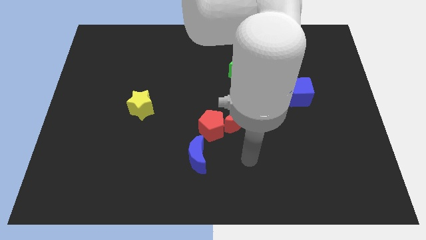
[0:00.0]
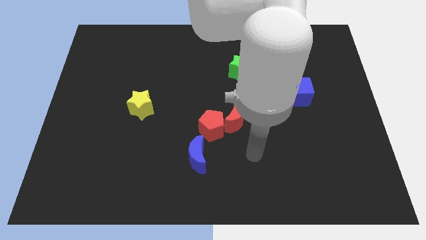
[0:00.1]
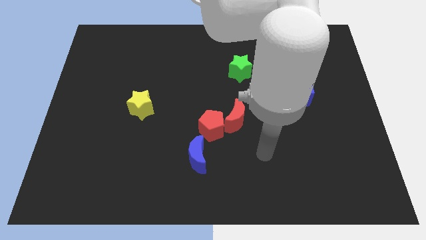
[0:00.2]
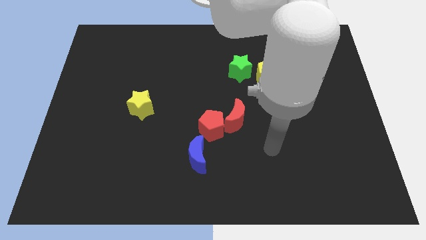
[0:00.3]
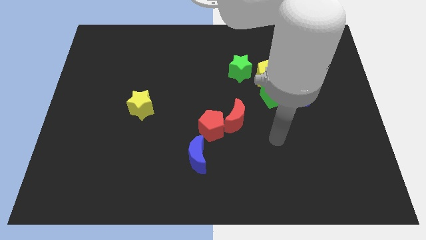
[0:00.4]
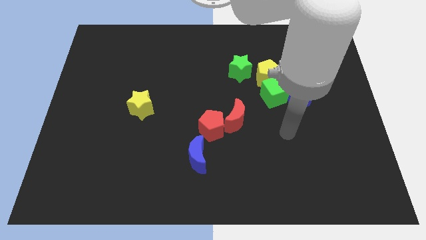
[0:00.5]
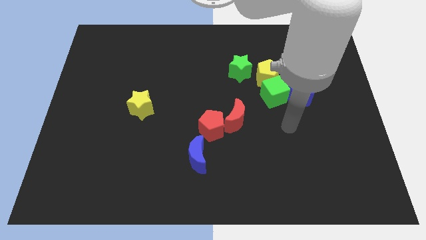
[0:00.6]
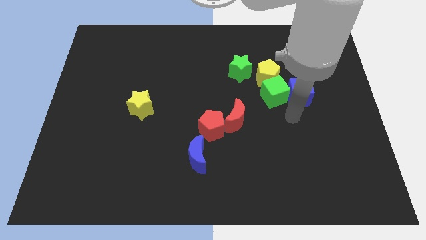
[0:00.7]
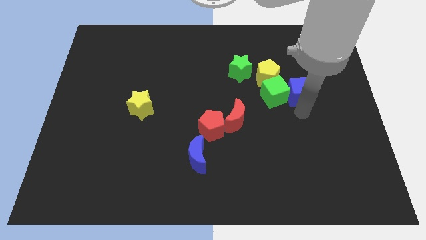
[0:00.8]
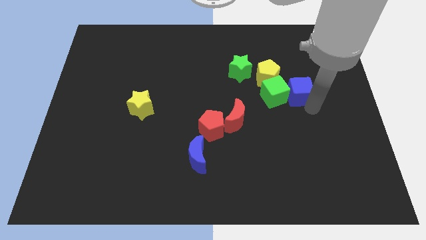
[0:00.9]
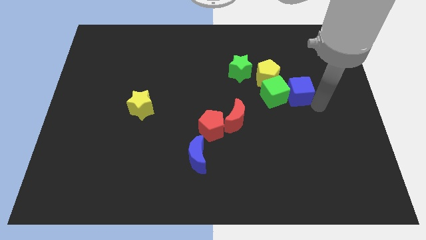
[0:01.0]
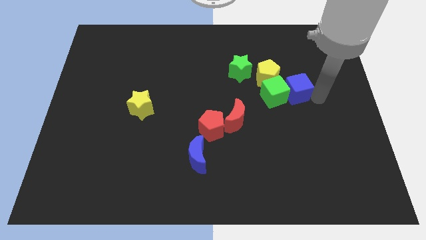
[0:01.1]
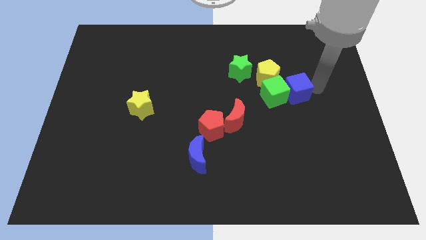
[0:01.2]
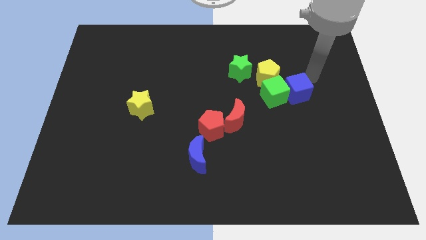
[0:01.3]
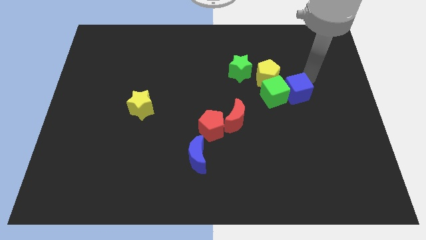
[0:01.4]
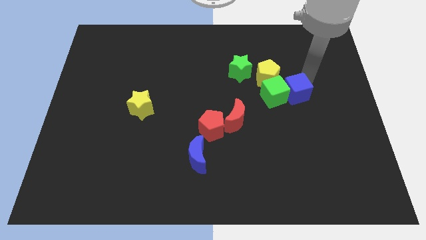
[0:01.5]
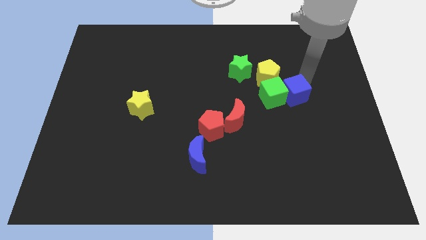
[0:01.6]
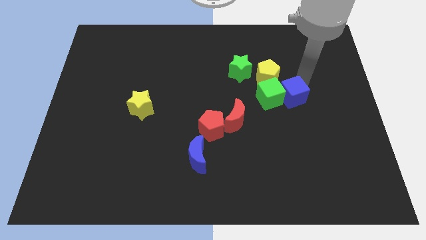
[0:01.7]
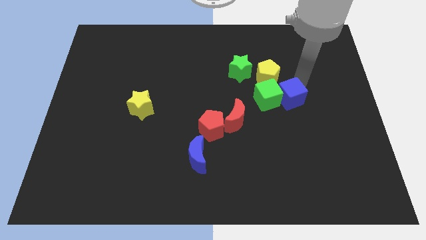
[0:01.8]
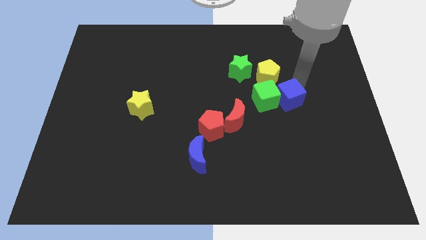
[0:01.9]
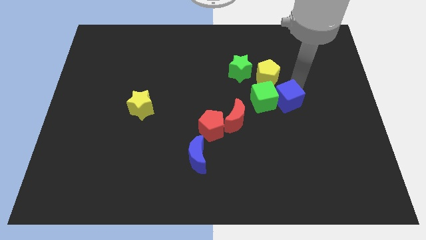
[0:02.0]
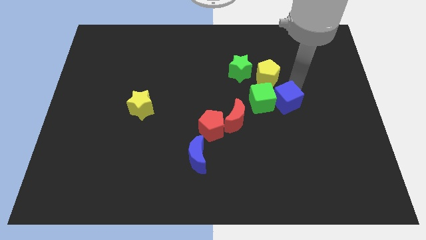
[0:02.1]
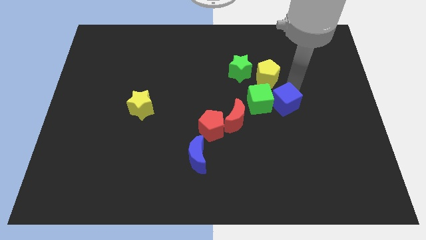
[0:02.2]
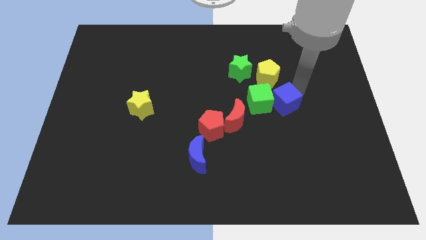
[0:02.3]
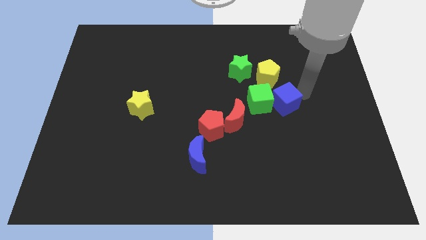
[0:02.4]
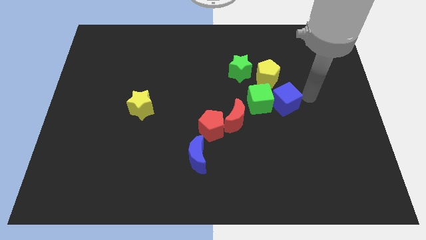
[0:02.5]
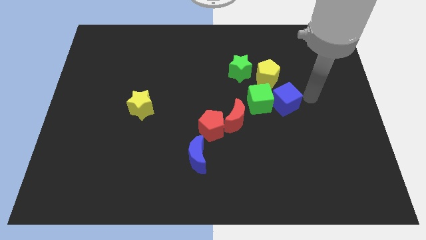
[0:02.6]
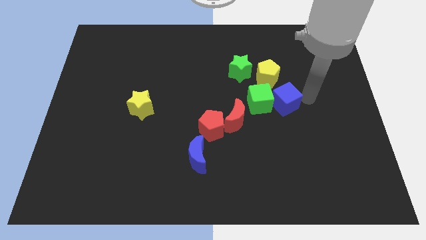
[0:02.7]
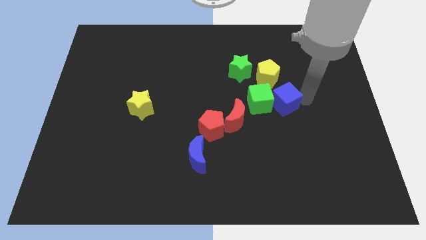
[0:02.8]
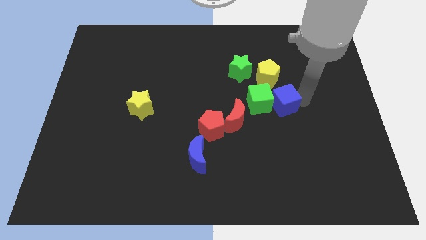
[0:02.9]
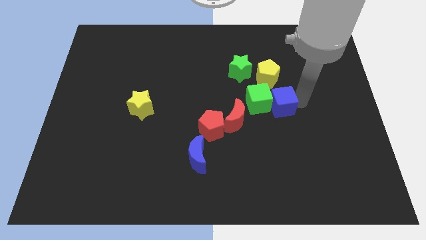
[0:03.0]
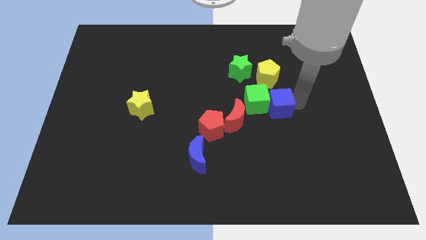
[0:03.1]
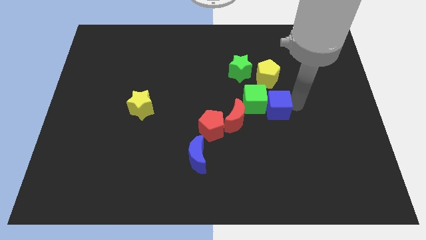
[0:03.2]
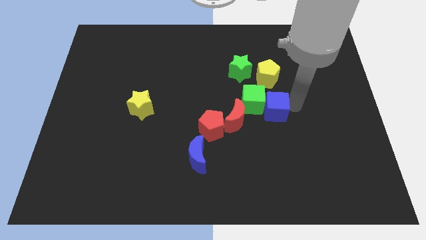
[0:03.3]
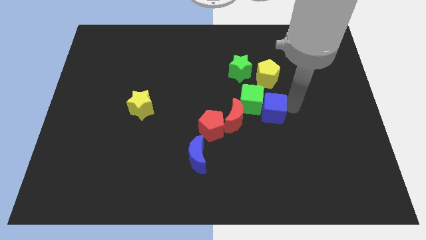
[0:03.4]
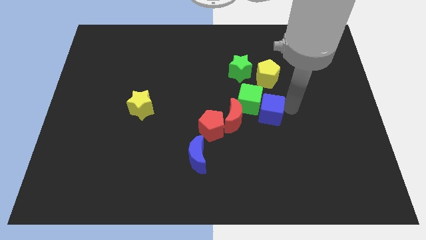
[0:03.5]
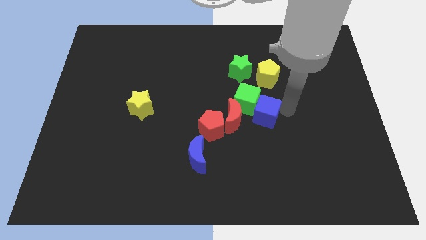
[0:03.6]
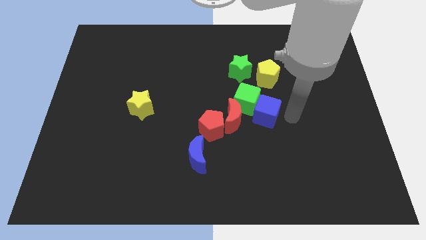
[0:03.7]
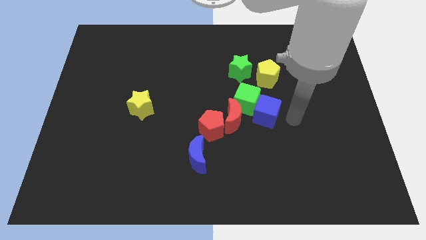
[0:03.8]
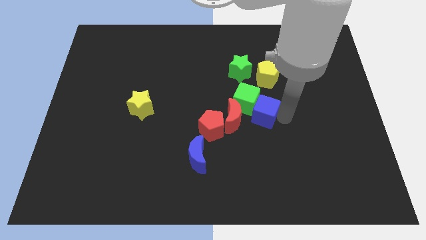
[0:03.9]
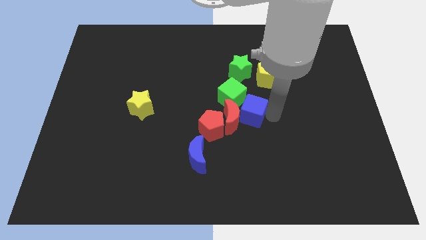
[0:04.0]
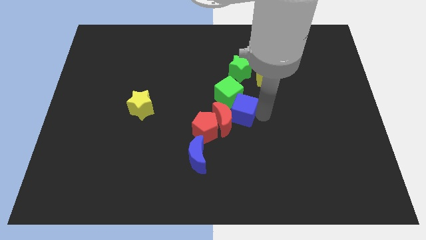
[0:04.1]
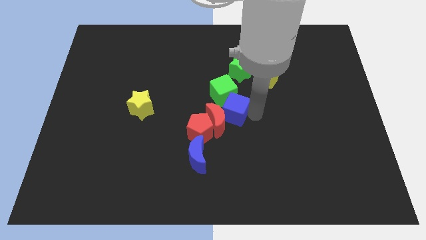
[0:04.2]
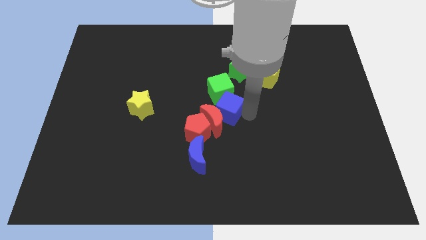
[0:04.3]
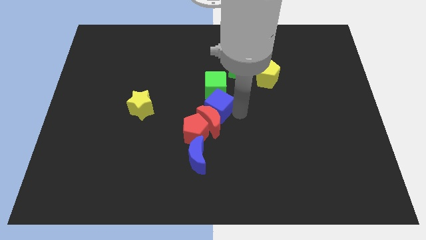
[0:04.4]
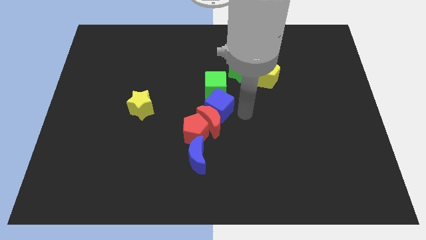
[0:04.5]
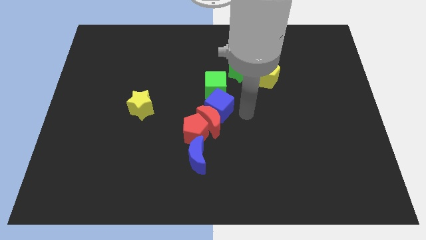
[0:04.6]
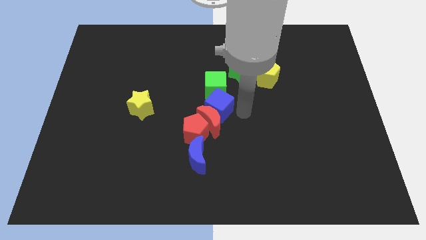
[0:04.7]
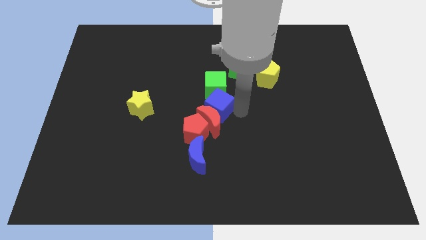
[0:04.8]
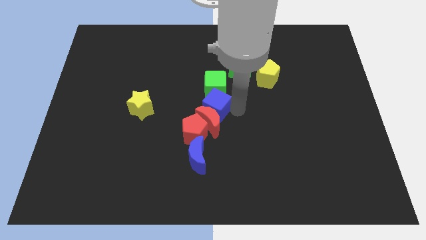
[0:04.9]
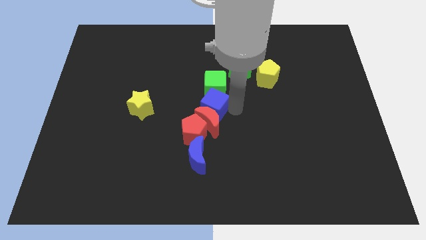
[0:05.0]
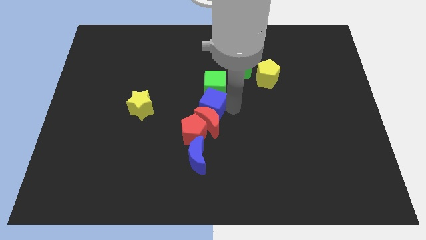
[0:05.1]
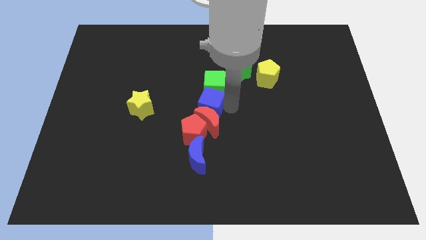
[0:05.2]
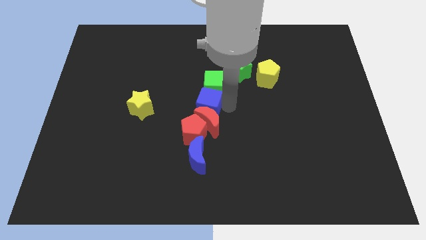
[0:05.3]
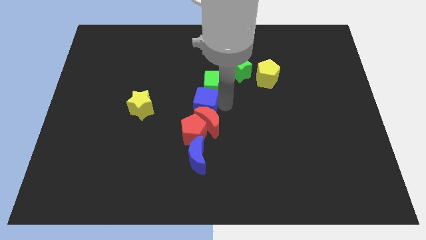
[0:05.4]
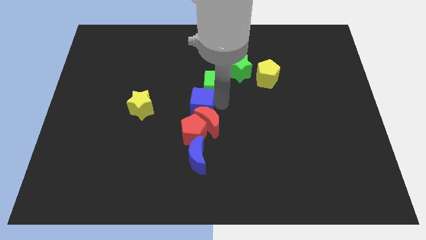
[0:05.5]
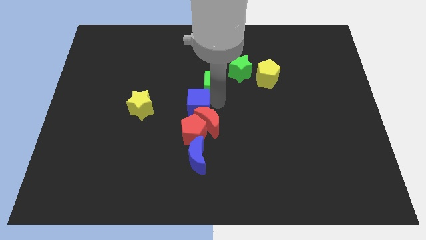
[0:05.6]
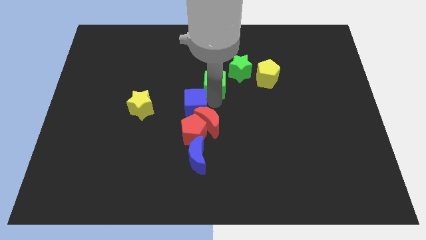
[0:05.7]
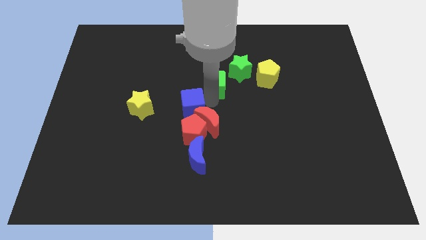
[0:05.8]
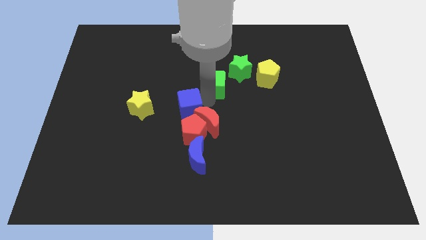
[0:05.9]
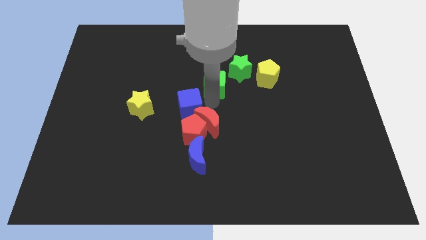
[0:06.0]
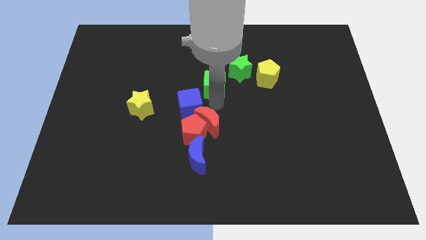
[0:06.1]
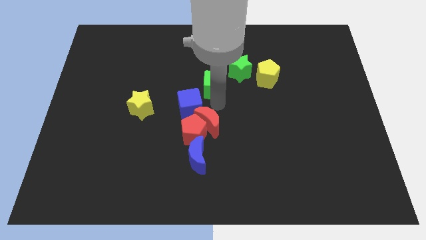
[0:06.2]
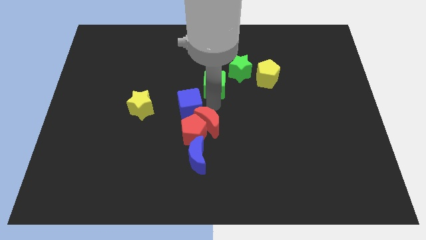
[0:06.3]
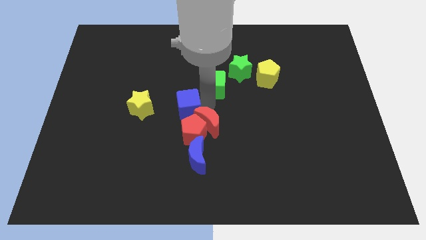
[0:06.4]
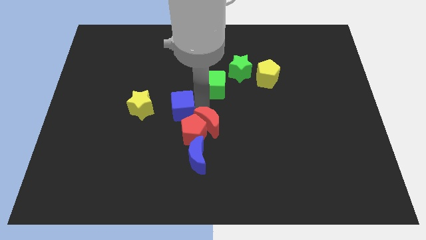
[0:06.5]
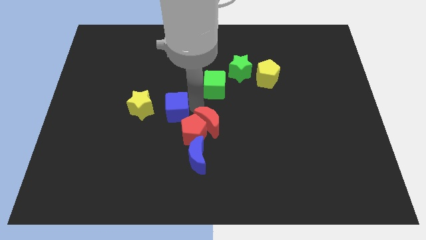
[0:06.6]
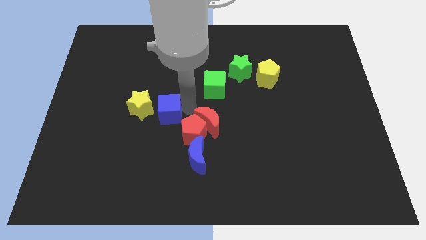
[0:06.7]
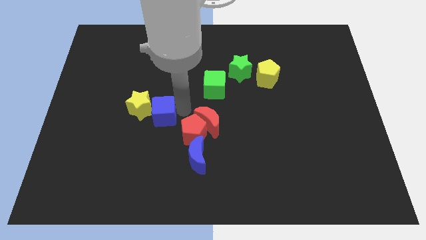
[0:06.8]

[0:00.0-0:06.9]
push the blue cube to the yellow star

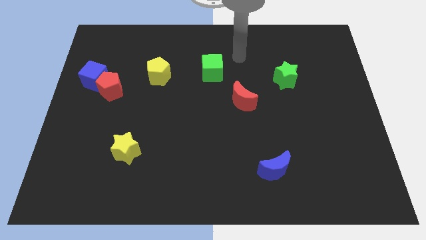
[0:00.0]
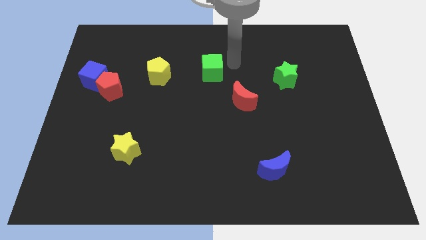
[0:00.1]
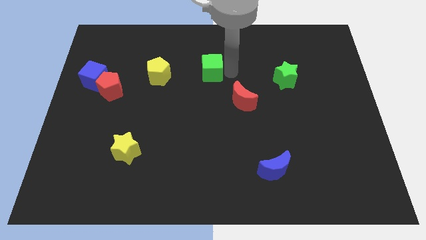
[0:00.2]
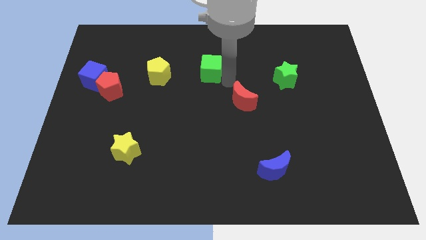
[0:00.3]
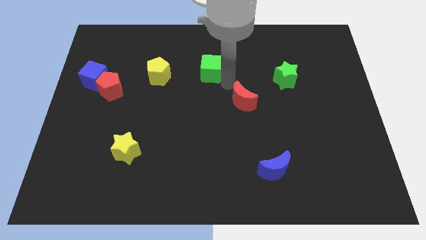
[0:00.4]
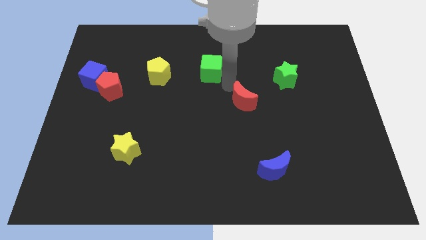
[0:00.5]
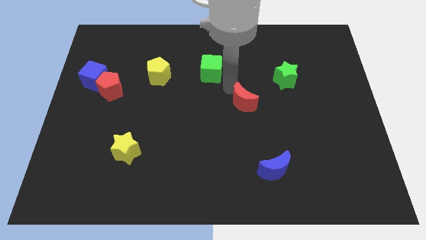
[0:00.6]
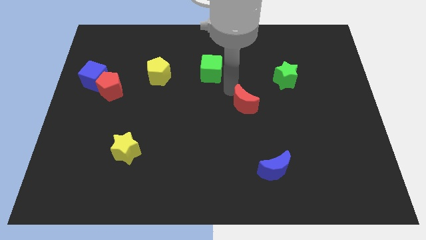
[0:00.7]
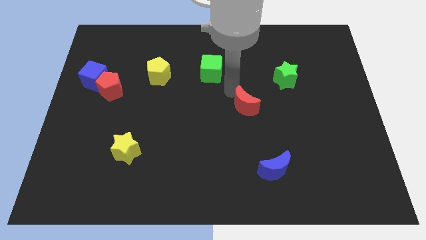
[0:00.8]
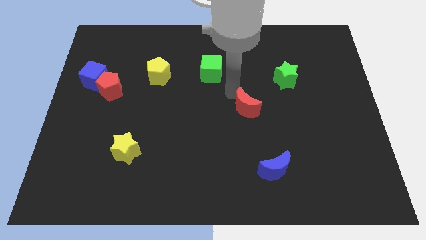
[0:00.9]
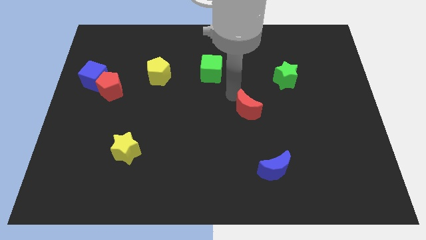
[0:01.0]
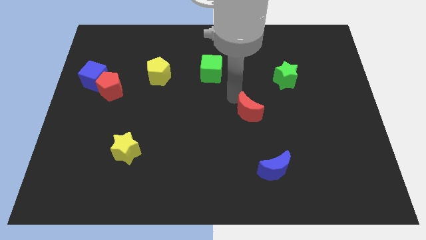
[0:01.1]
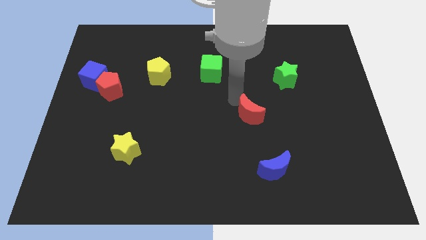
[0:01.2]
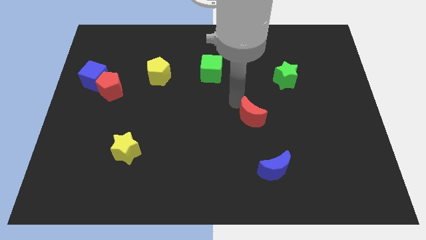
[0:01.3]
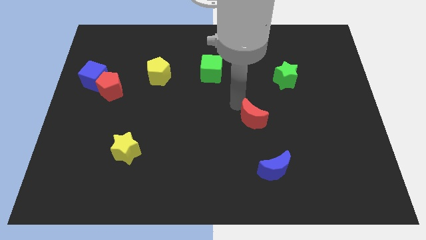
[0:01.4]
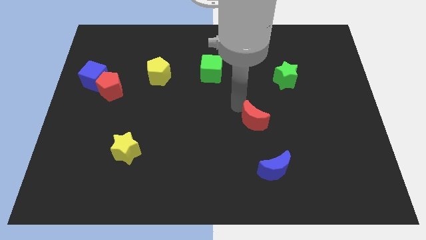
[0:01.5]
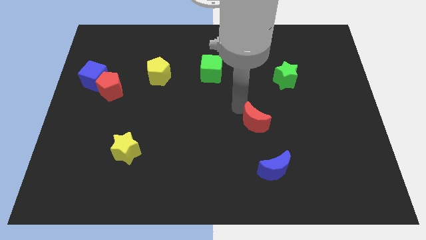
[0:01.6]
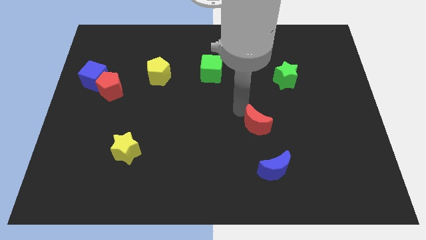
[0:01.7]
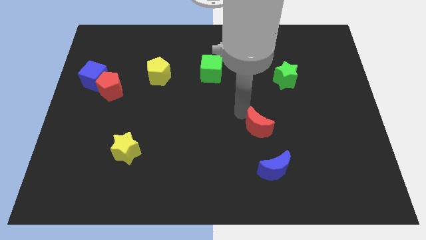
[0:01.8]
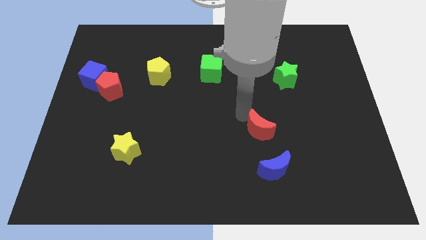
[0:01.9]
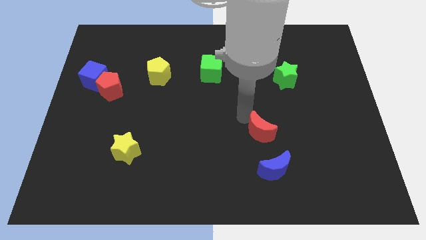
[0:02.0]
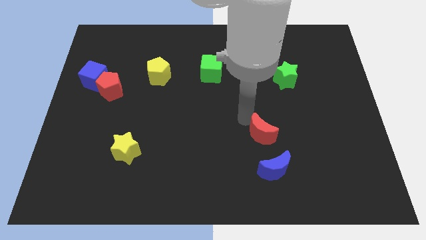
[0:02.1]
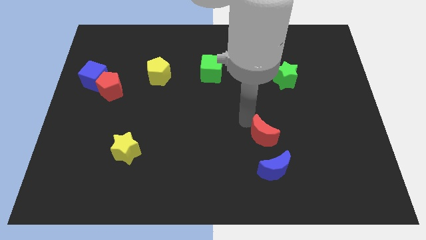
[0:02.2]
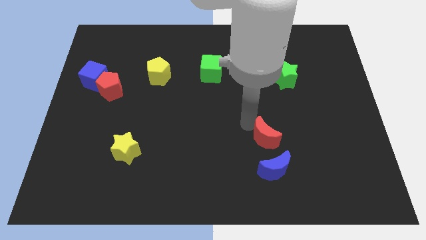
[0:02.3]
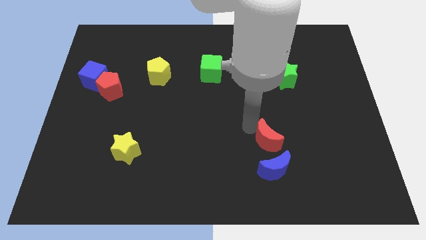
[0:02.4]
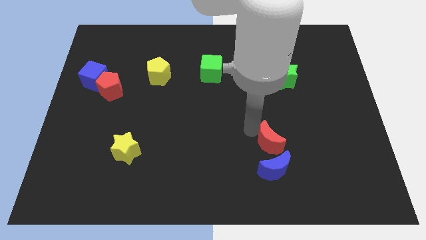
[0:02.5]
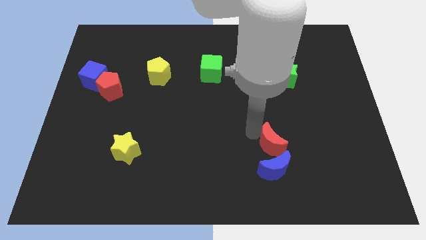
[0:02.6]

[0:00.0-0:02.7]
put the red moon towards the blue moon
